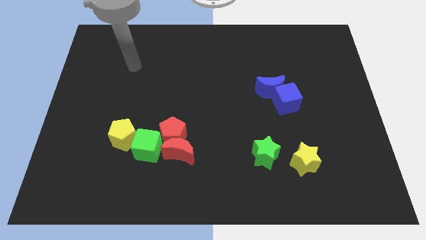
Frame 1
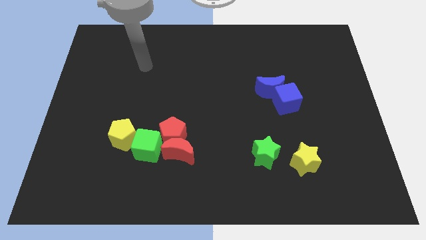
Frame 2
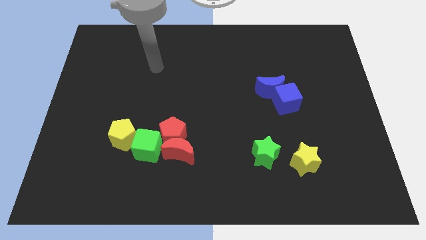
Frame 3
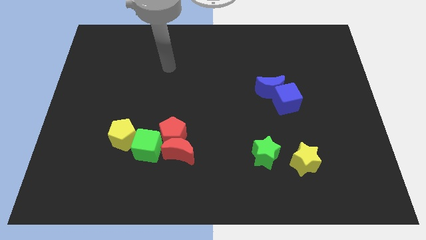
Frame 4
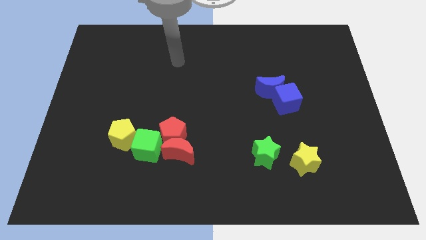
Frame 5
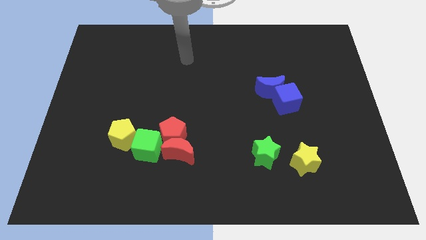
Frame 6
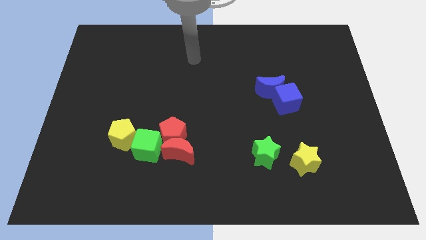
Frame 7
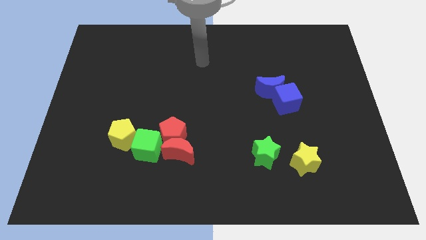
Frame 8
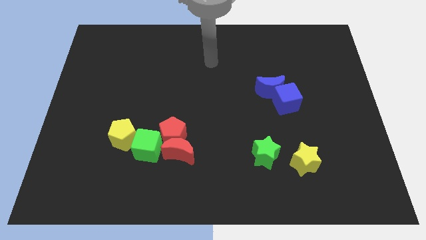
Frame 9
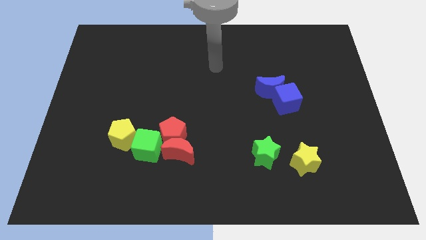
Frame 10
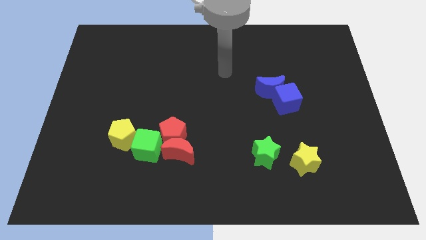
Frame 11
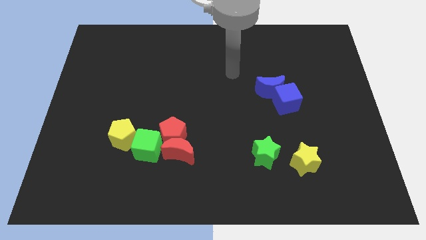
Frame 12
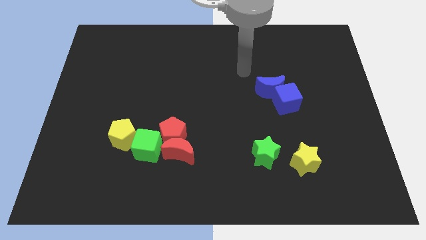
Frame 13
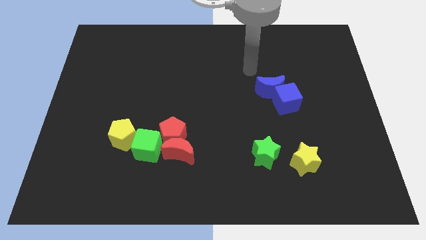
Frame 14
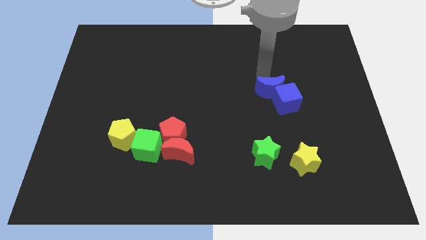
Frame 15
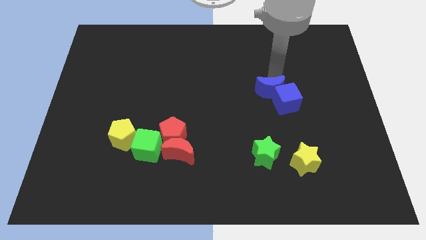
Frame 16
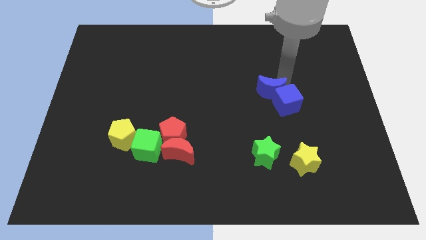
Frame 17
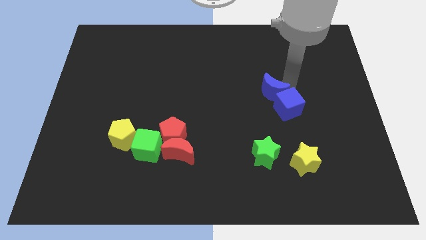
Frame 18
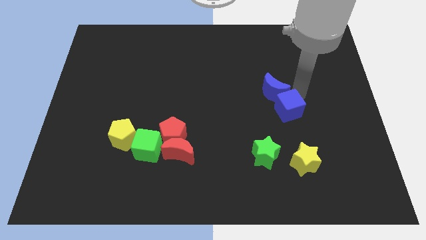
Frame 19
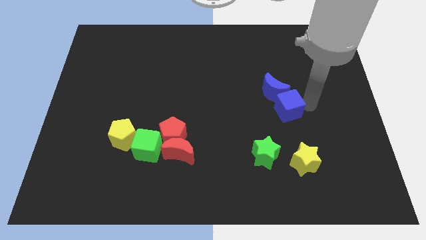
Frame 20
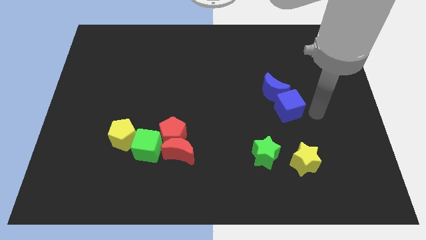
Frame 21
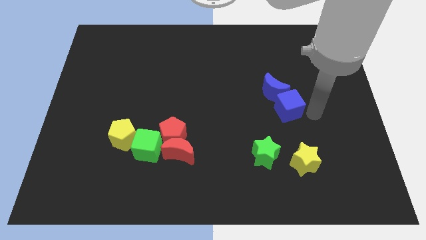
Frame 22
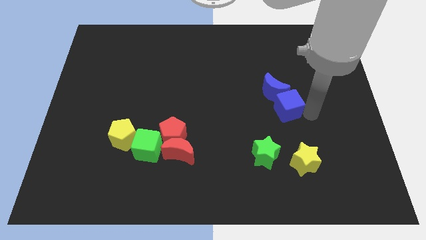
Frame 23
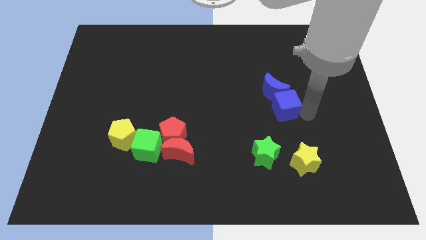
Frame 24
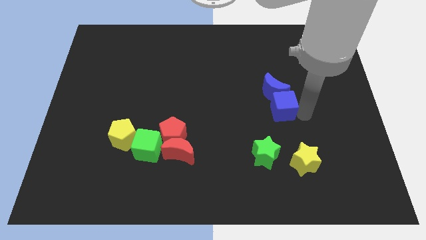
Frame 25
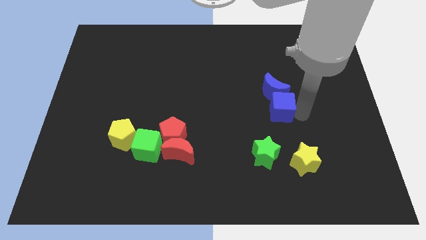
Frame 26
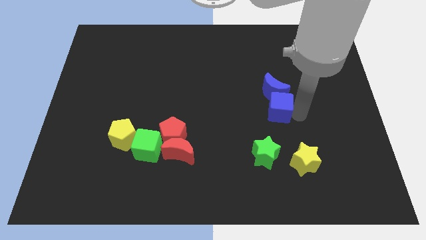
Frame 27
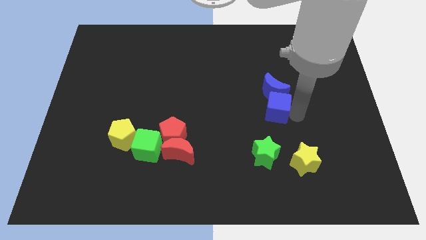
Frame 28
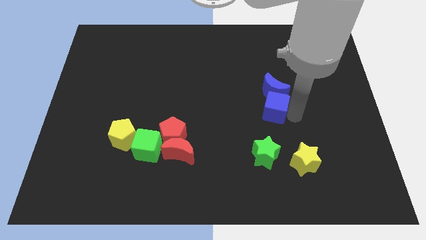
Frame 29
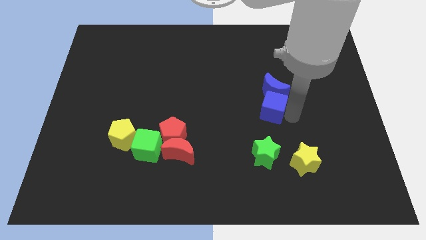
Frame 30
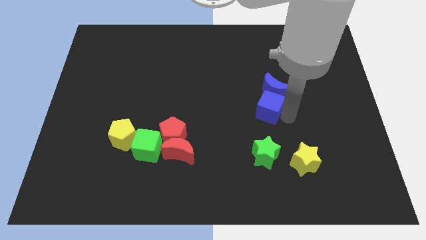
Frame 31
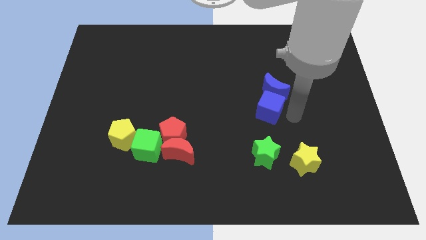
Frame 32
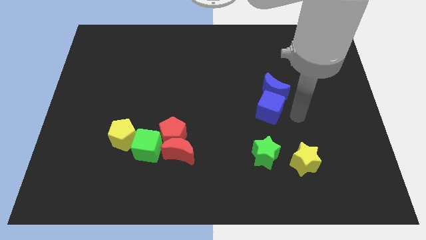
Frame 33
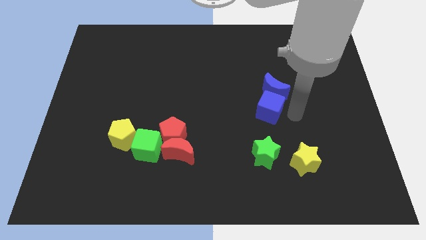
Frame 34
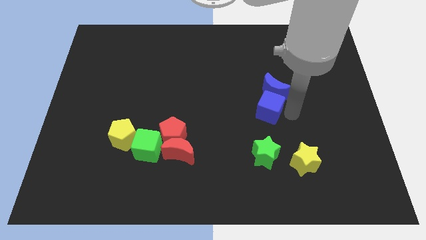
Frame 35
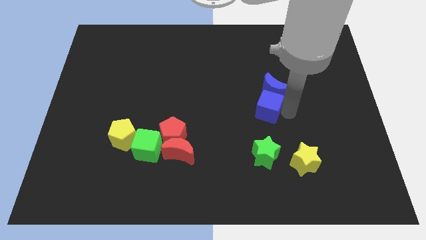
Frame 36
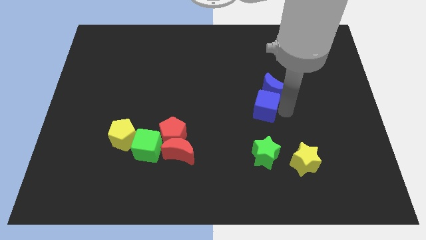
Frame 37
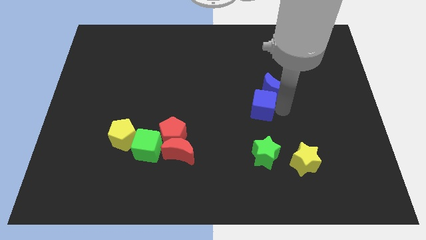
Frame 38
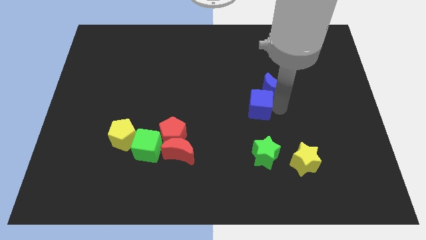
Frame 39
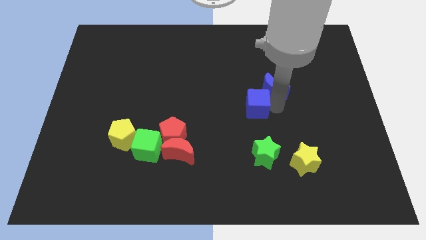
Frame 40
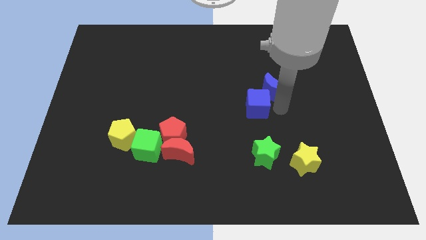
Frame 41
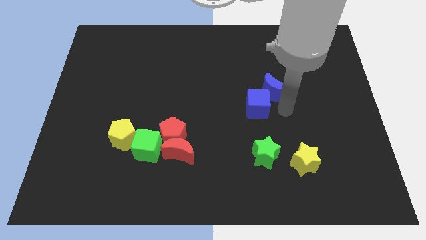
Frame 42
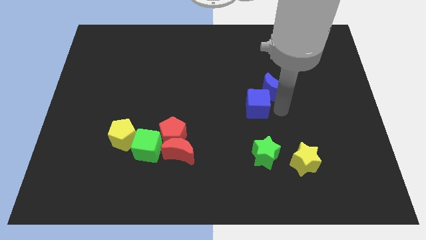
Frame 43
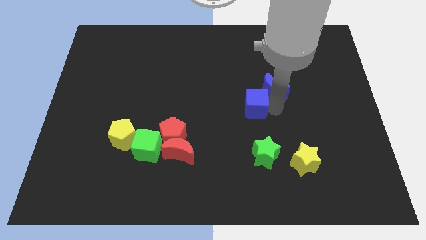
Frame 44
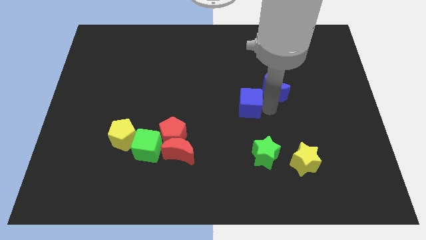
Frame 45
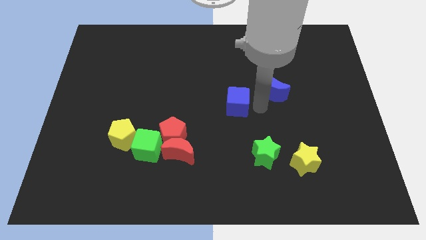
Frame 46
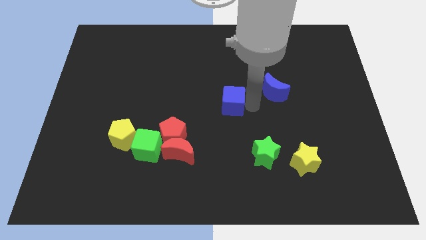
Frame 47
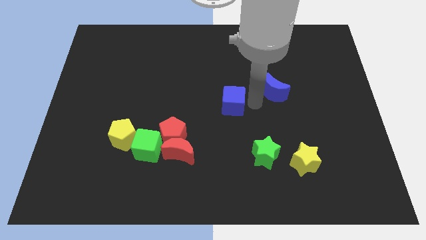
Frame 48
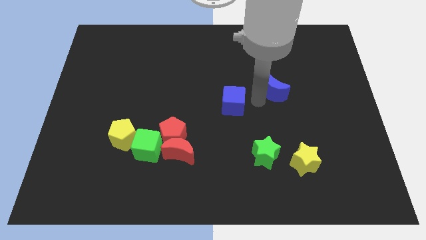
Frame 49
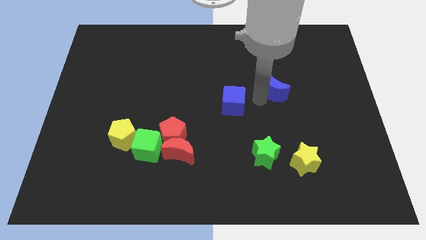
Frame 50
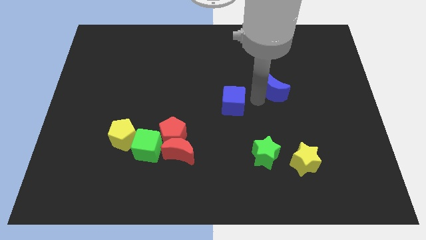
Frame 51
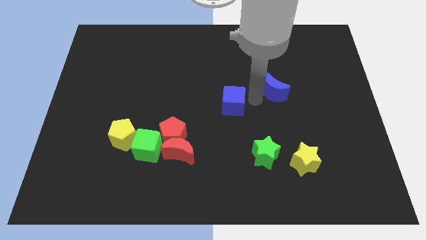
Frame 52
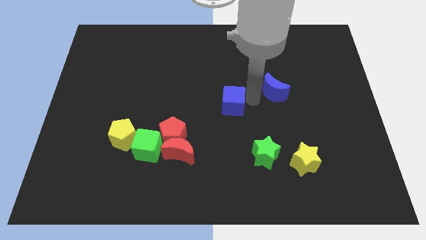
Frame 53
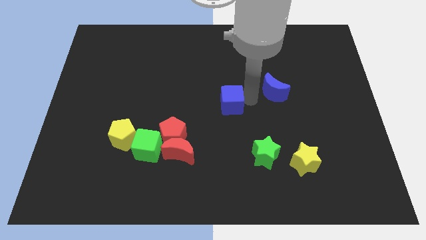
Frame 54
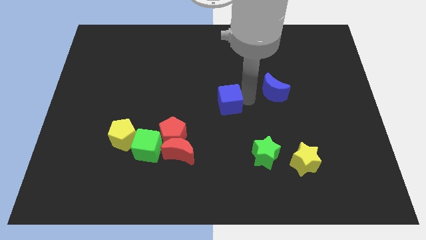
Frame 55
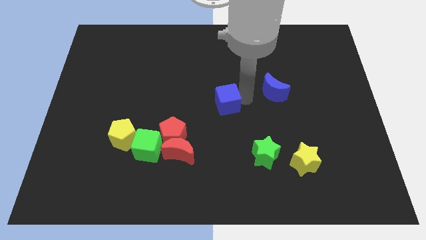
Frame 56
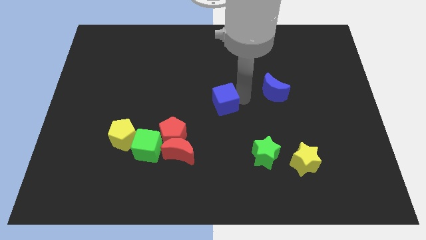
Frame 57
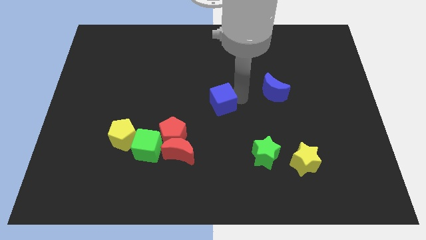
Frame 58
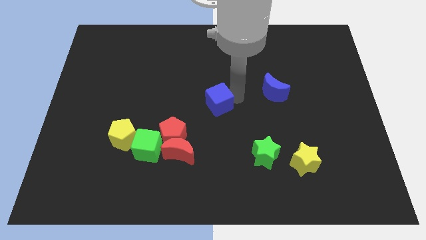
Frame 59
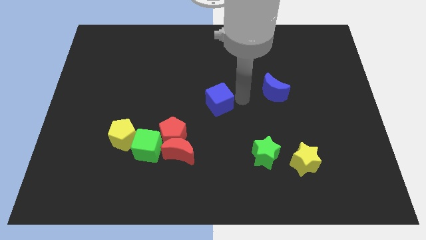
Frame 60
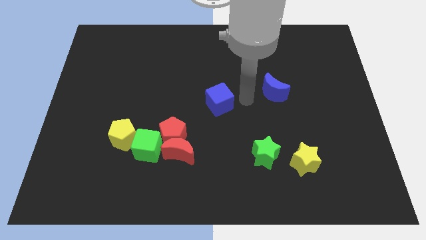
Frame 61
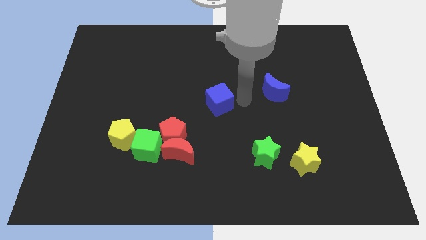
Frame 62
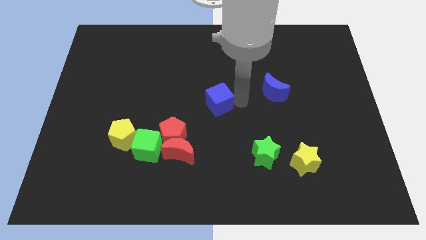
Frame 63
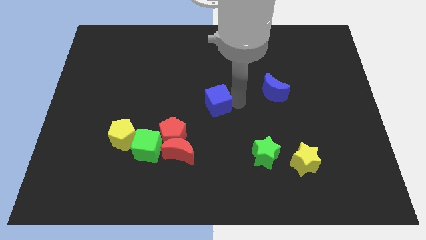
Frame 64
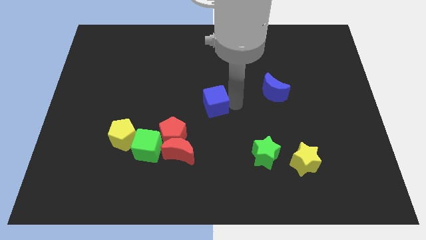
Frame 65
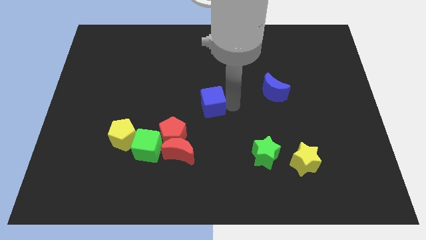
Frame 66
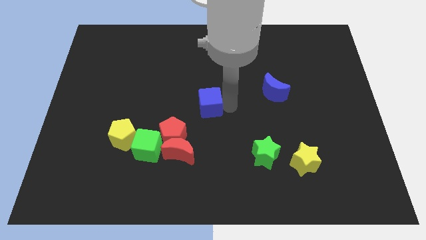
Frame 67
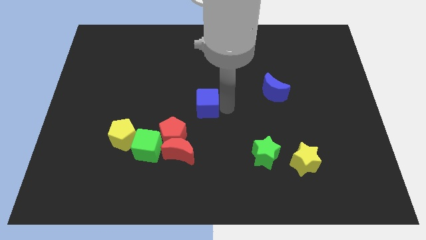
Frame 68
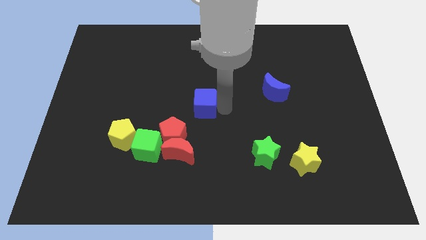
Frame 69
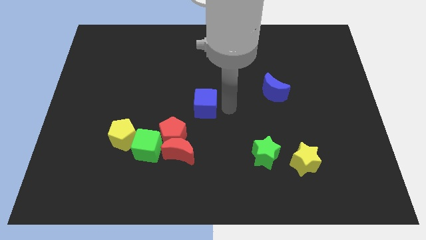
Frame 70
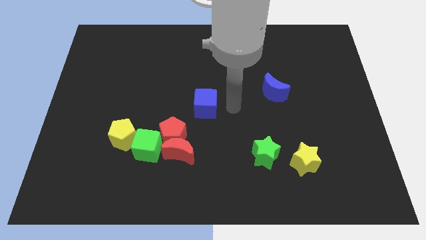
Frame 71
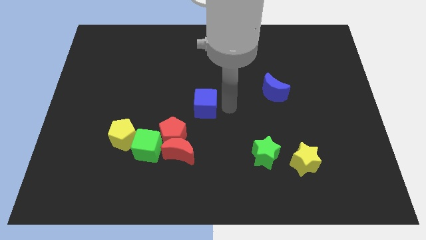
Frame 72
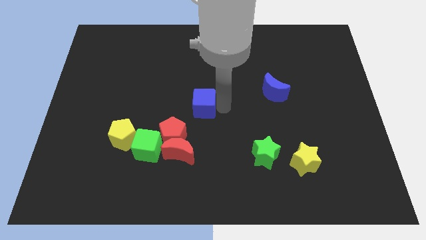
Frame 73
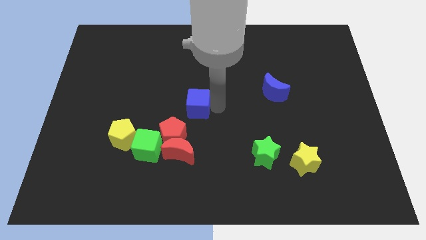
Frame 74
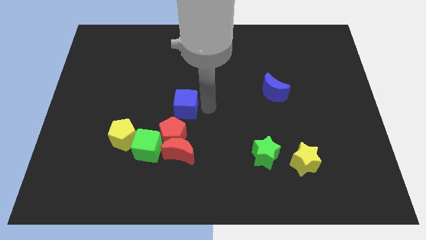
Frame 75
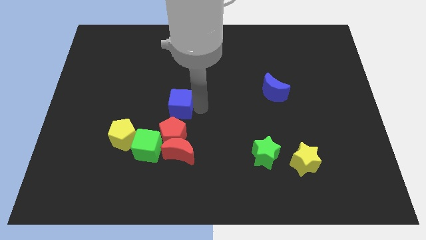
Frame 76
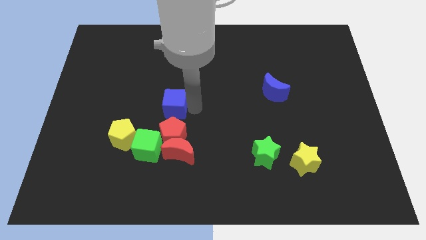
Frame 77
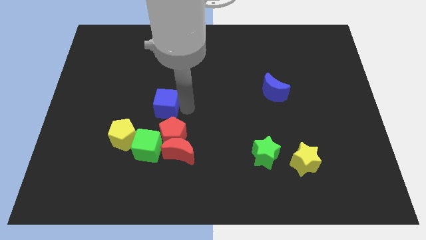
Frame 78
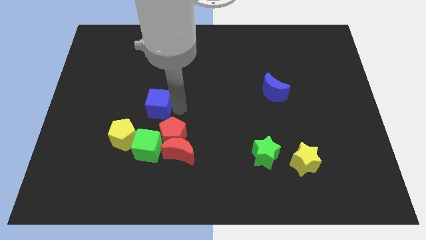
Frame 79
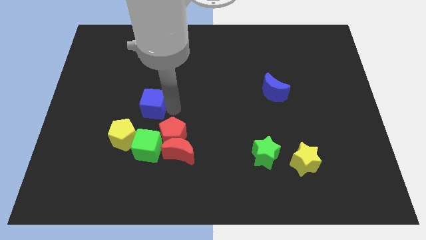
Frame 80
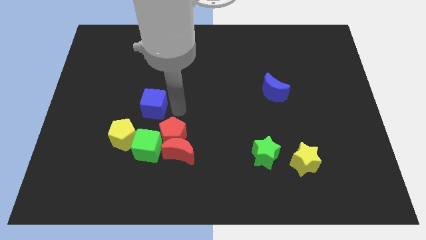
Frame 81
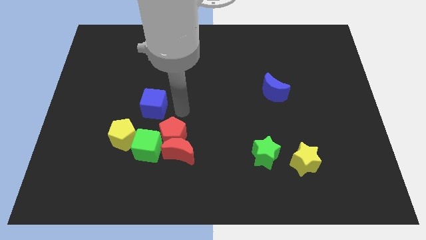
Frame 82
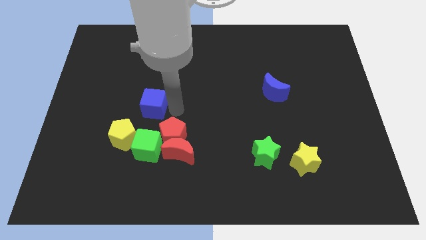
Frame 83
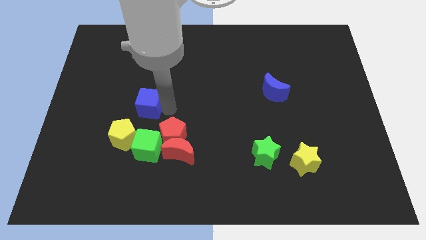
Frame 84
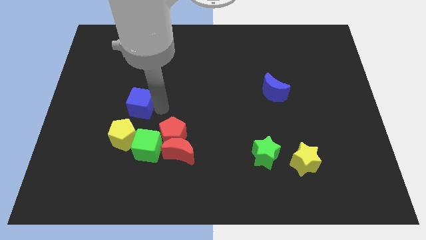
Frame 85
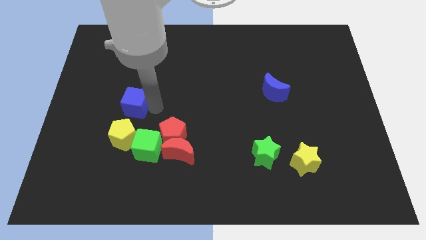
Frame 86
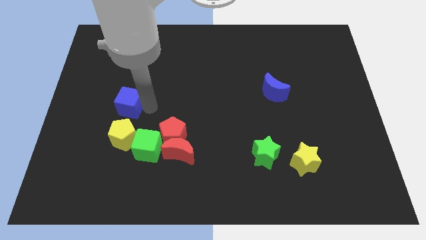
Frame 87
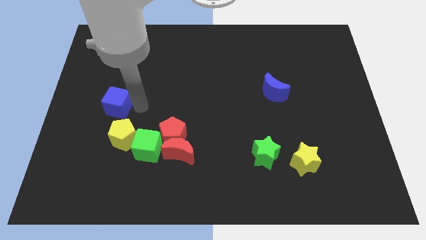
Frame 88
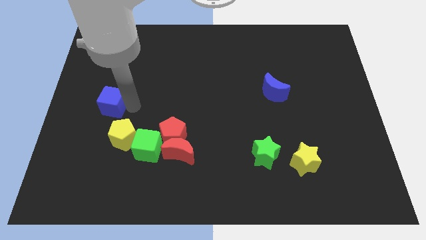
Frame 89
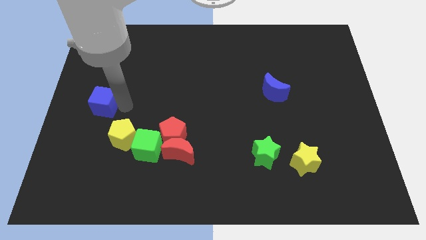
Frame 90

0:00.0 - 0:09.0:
slide the blue cube to the center left
